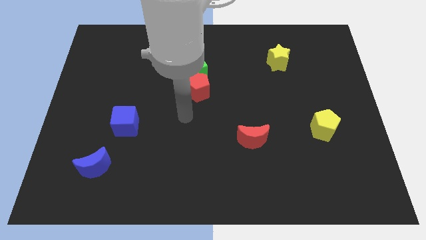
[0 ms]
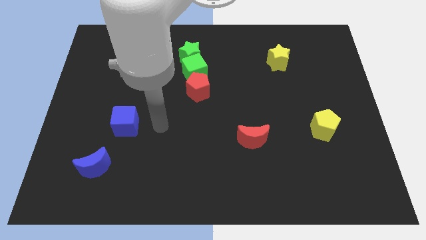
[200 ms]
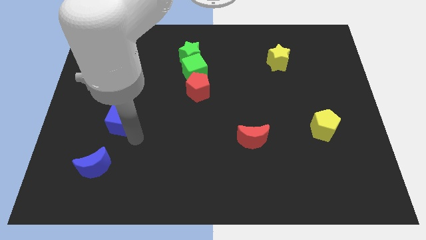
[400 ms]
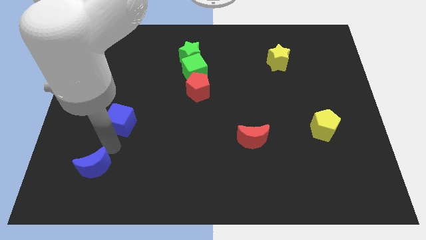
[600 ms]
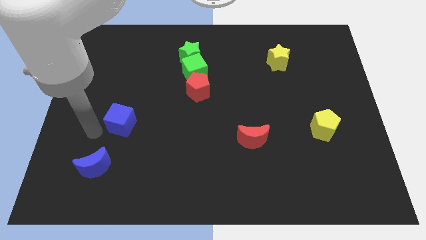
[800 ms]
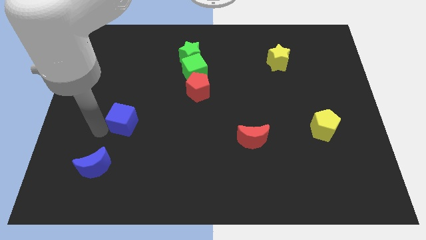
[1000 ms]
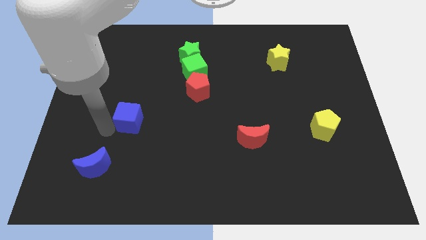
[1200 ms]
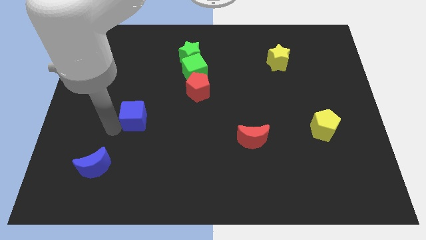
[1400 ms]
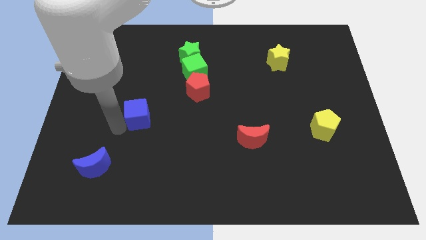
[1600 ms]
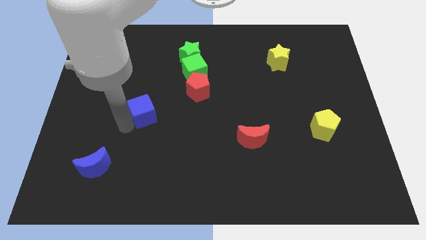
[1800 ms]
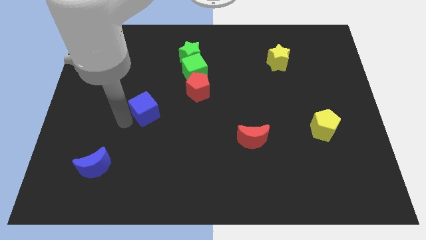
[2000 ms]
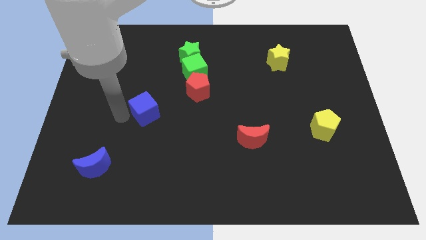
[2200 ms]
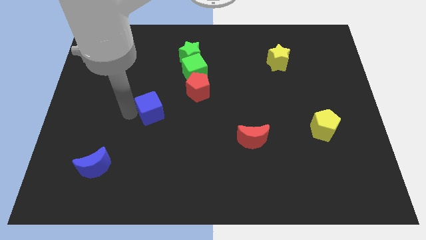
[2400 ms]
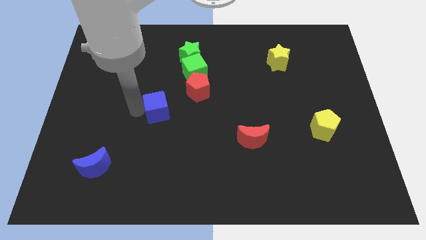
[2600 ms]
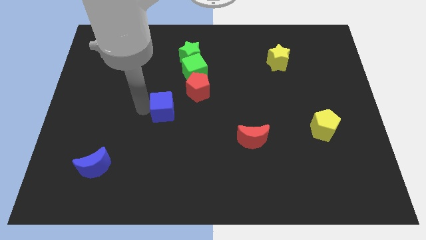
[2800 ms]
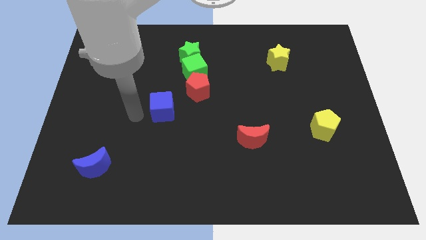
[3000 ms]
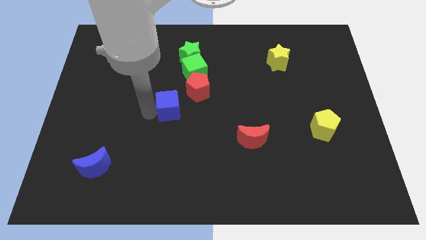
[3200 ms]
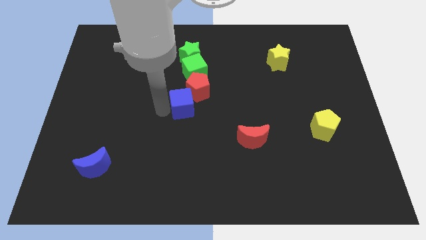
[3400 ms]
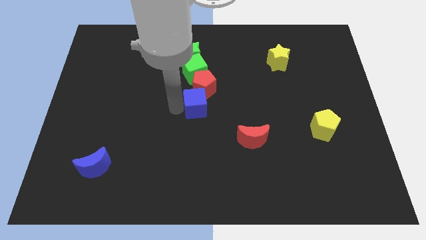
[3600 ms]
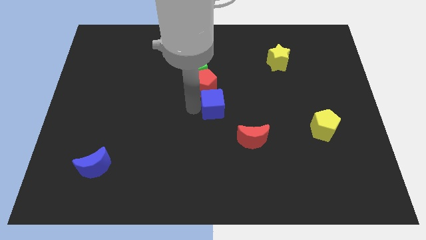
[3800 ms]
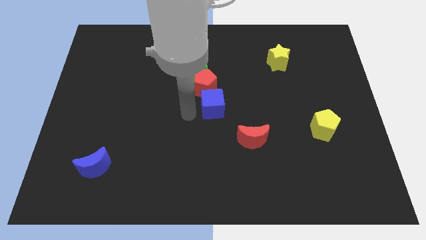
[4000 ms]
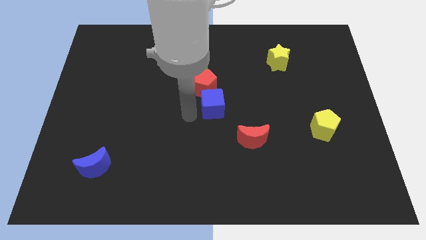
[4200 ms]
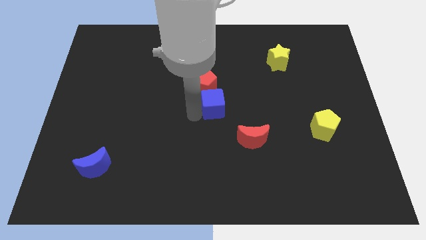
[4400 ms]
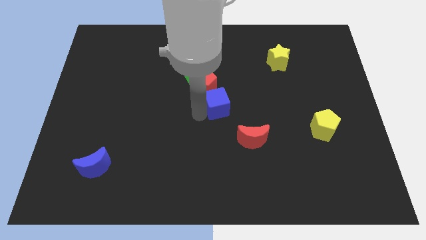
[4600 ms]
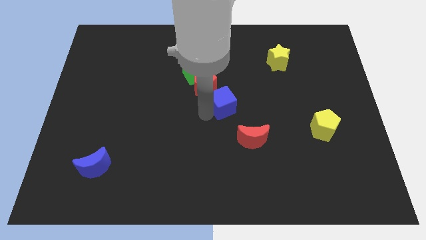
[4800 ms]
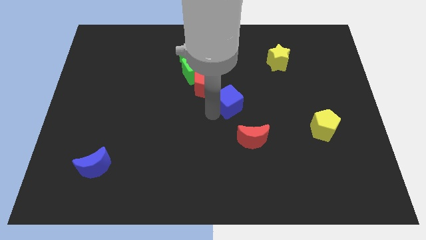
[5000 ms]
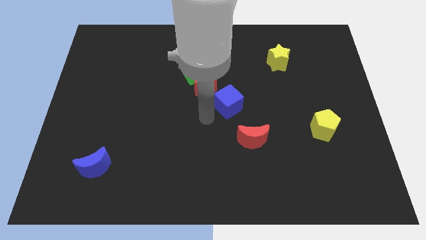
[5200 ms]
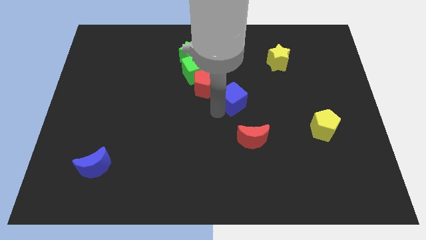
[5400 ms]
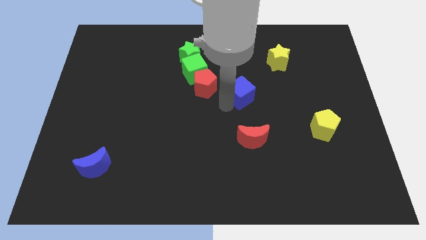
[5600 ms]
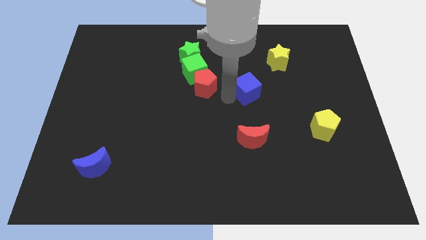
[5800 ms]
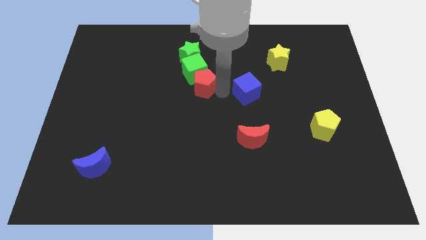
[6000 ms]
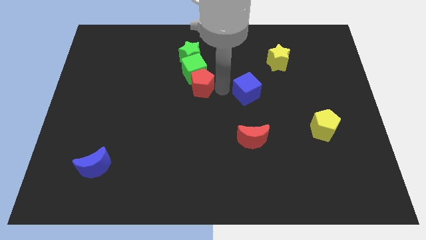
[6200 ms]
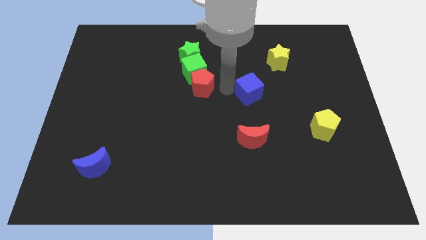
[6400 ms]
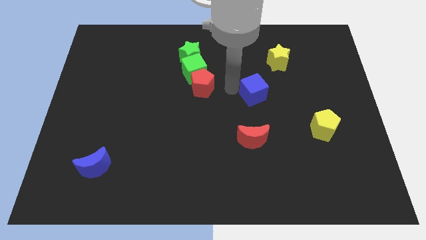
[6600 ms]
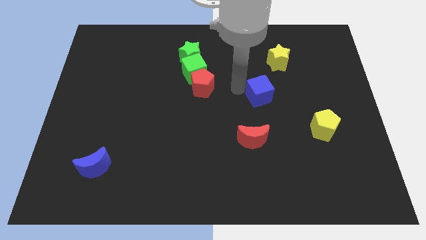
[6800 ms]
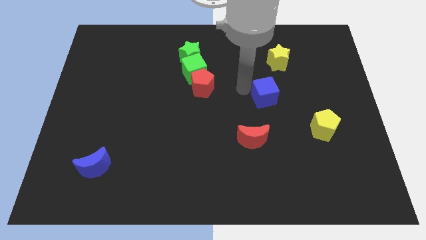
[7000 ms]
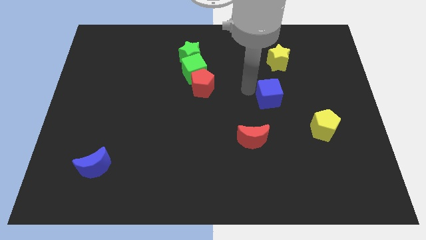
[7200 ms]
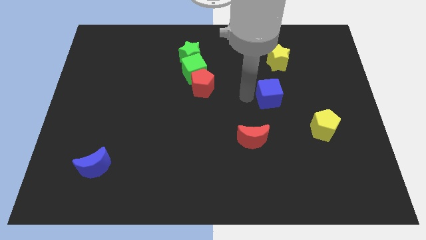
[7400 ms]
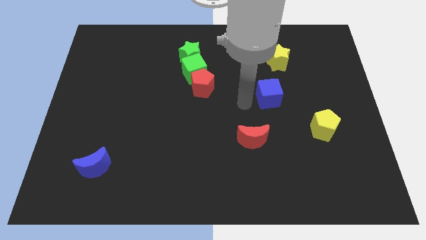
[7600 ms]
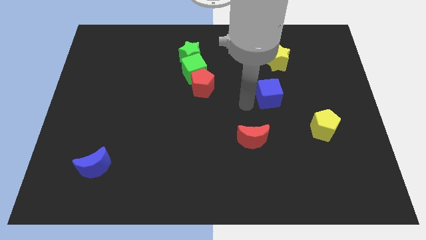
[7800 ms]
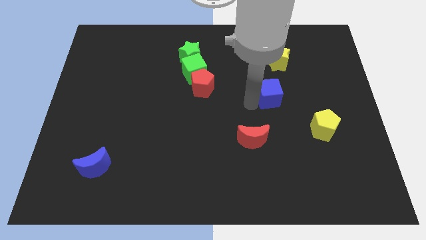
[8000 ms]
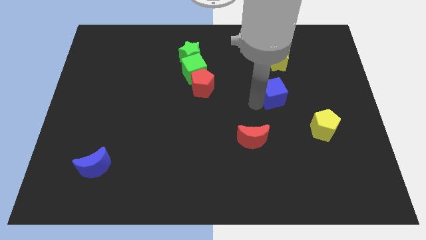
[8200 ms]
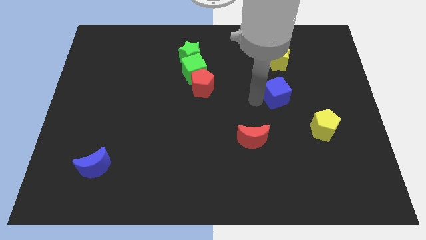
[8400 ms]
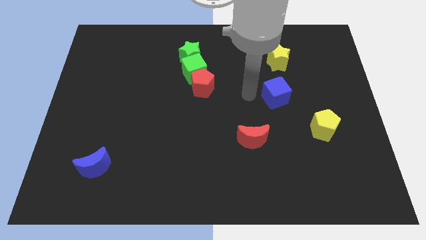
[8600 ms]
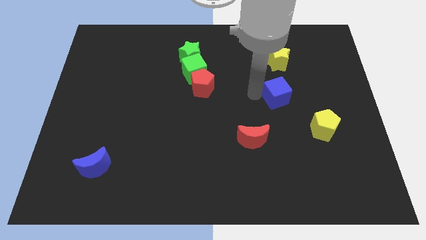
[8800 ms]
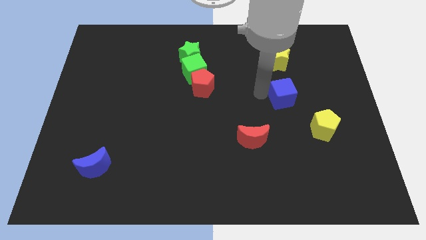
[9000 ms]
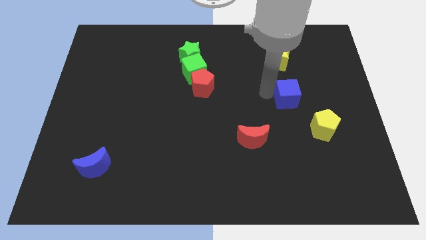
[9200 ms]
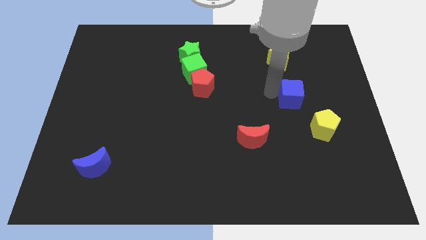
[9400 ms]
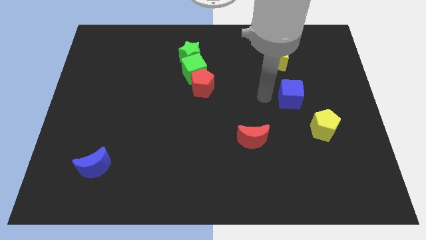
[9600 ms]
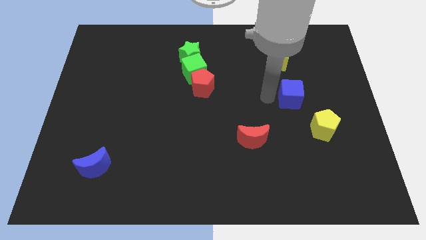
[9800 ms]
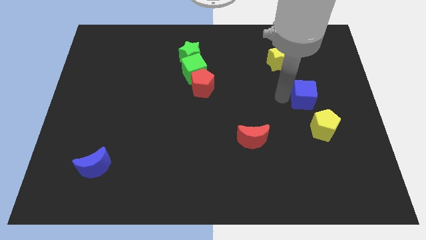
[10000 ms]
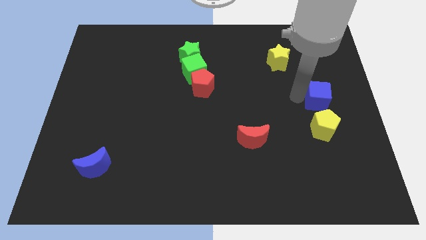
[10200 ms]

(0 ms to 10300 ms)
move the blue cube to the center right

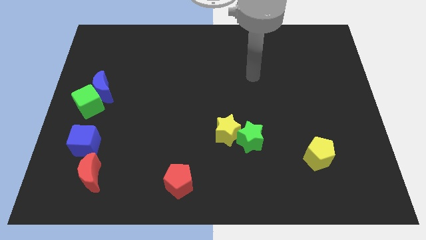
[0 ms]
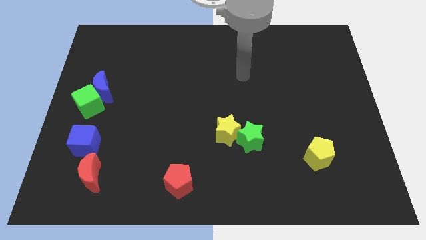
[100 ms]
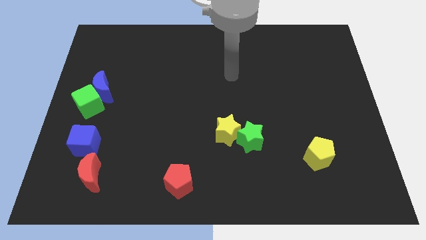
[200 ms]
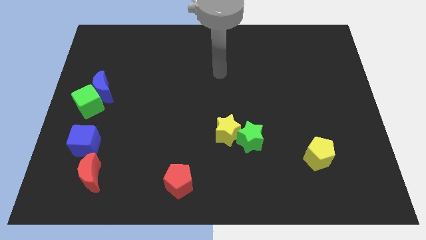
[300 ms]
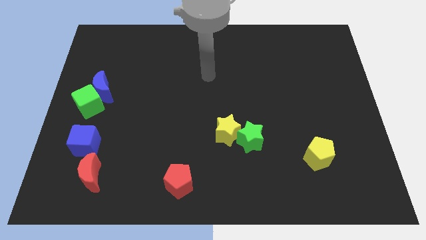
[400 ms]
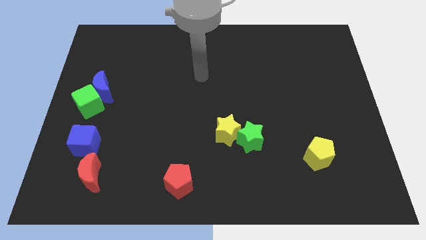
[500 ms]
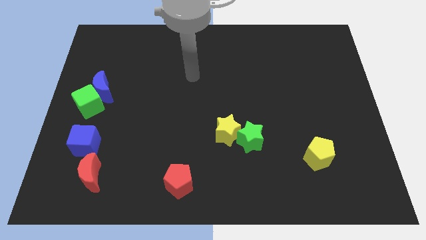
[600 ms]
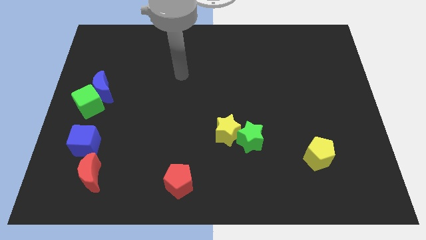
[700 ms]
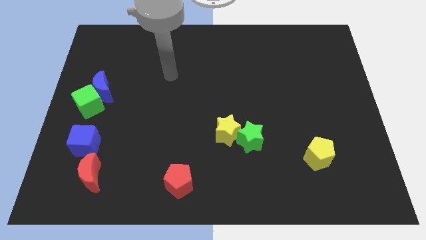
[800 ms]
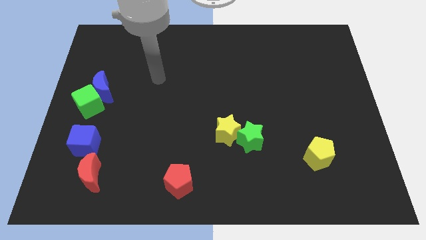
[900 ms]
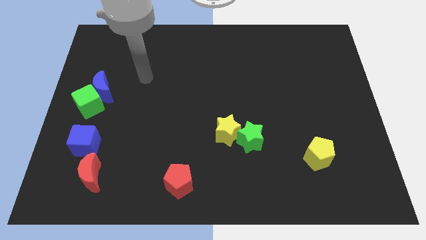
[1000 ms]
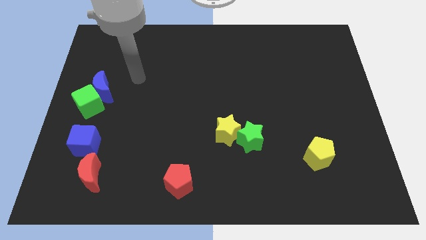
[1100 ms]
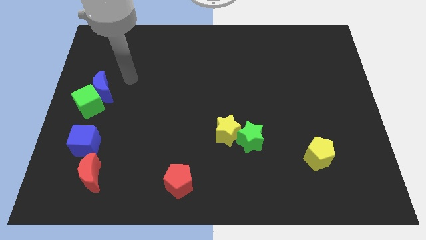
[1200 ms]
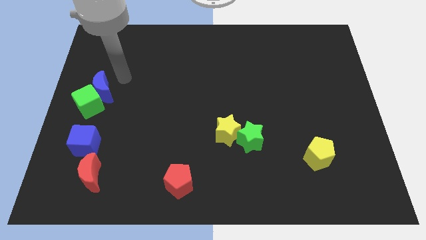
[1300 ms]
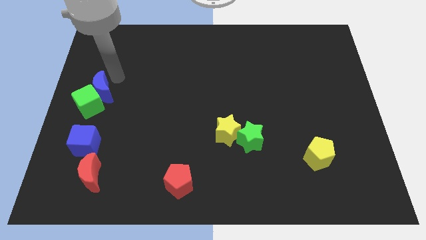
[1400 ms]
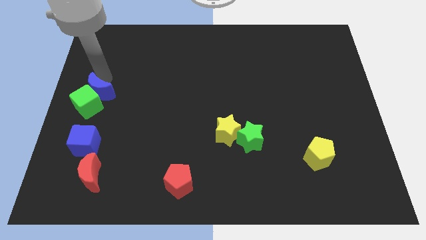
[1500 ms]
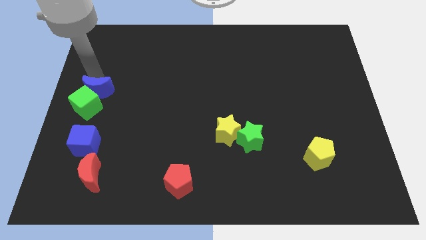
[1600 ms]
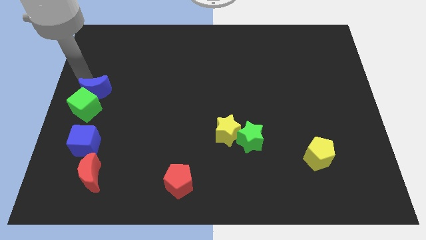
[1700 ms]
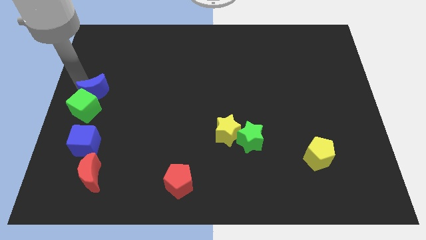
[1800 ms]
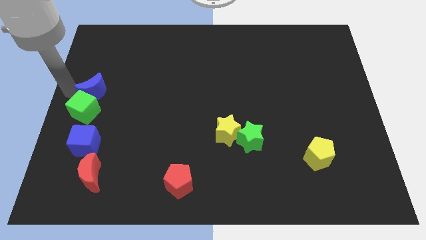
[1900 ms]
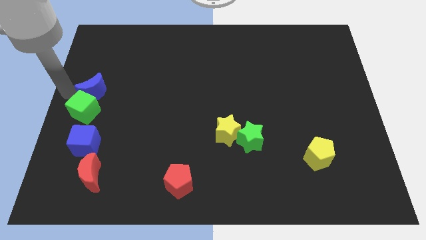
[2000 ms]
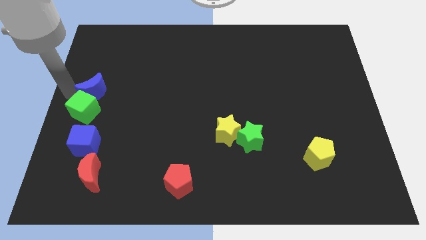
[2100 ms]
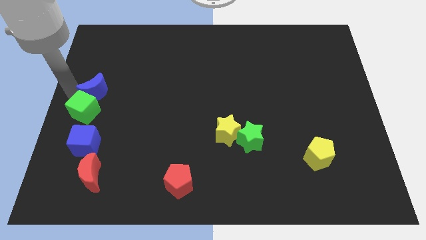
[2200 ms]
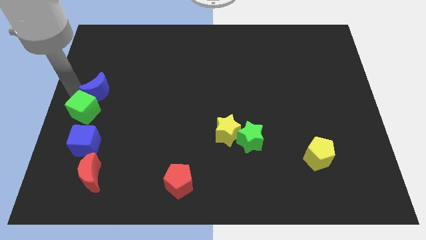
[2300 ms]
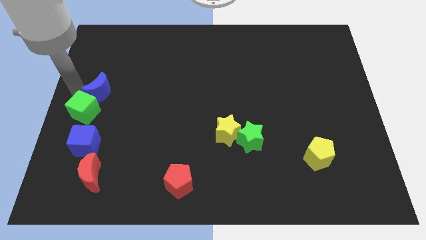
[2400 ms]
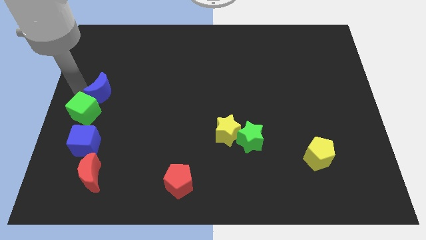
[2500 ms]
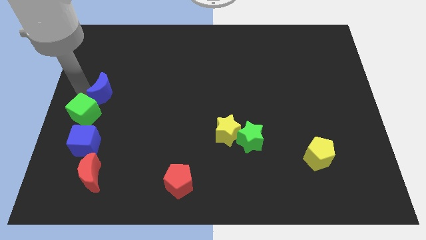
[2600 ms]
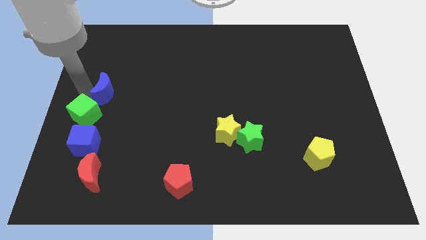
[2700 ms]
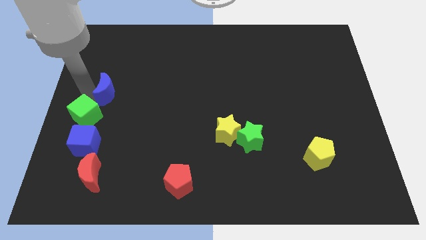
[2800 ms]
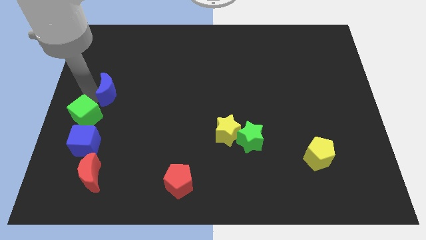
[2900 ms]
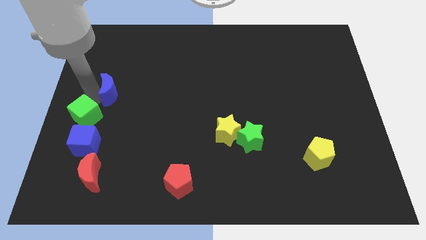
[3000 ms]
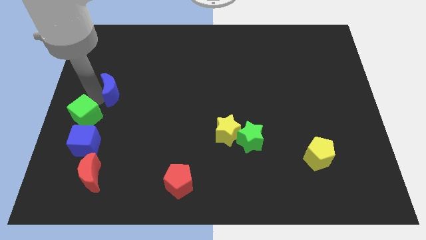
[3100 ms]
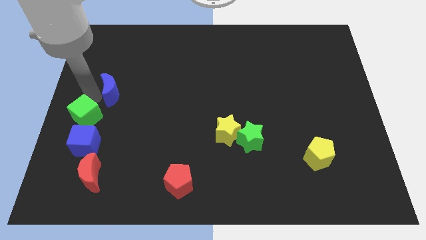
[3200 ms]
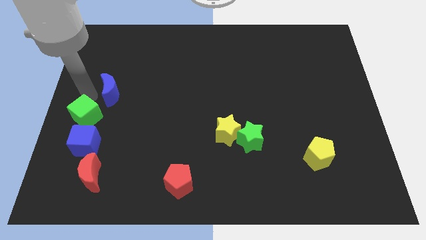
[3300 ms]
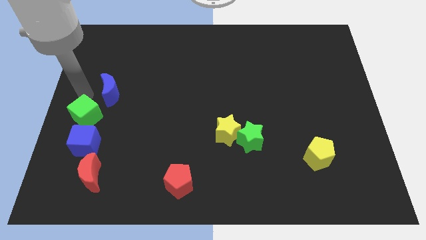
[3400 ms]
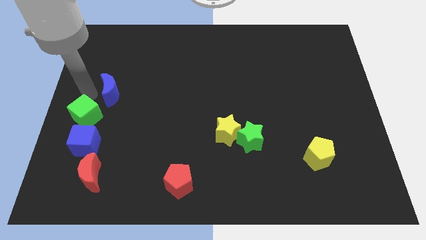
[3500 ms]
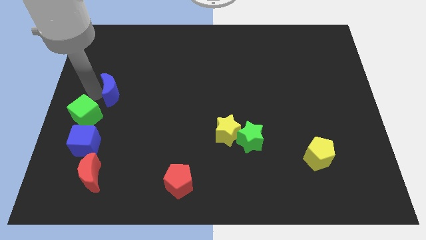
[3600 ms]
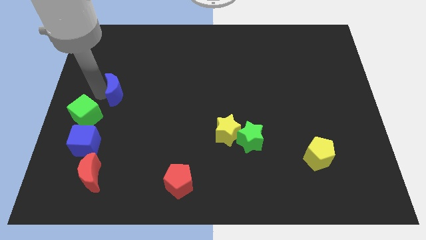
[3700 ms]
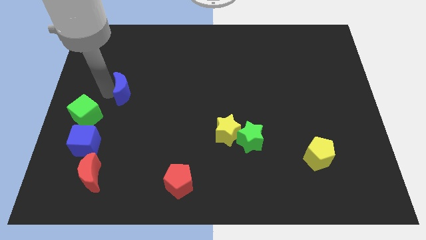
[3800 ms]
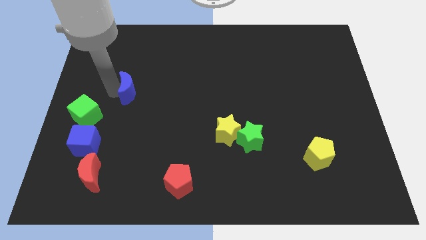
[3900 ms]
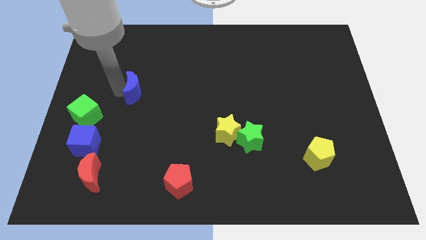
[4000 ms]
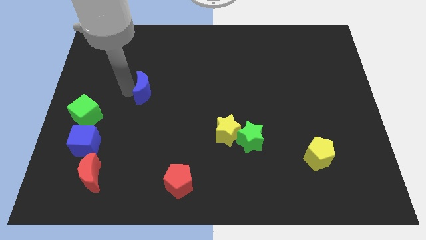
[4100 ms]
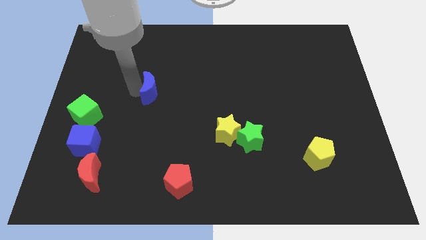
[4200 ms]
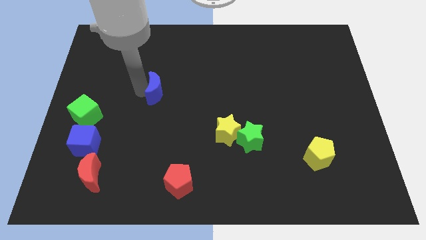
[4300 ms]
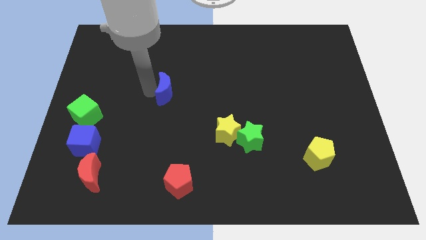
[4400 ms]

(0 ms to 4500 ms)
push the blue moon to the middle
